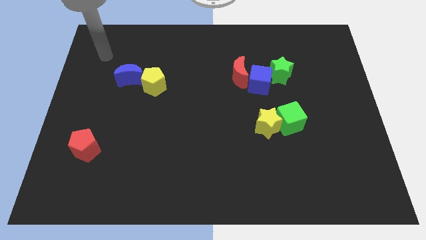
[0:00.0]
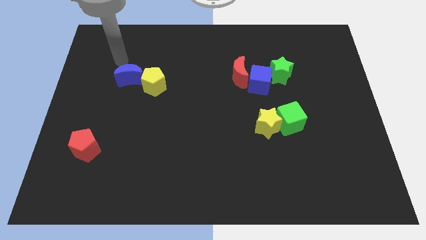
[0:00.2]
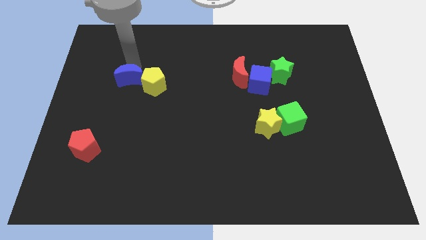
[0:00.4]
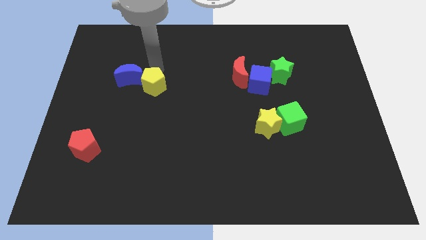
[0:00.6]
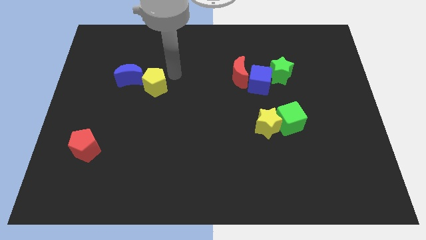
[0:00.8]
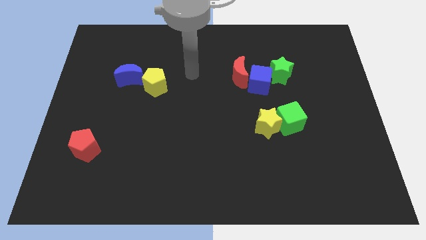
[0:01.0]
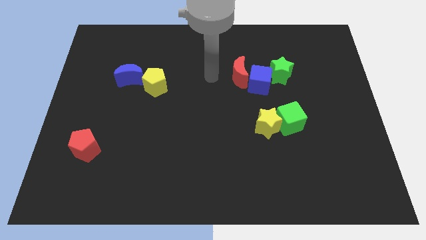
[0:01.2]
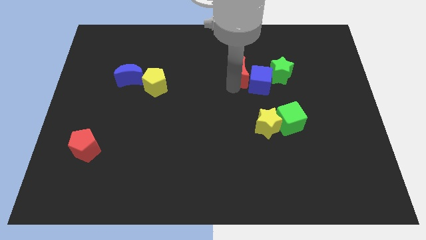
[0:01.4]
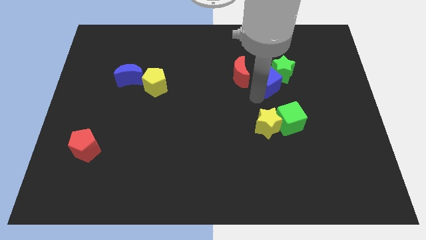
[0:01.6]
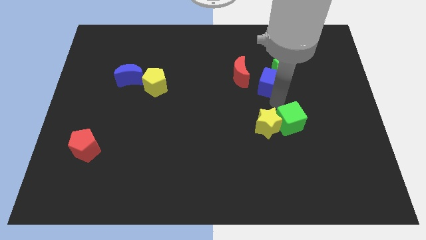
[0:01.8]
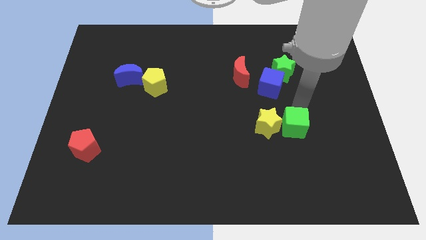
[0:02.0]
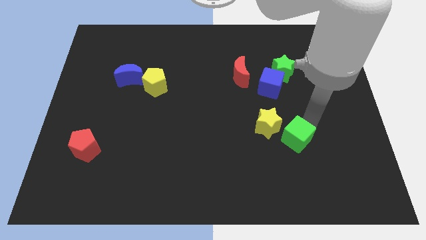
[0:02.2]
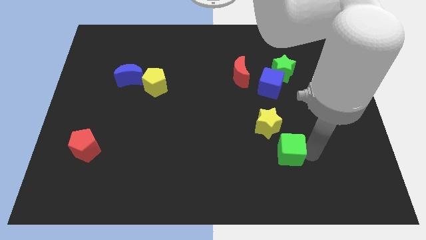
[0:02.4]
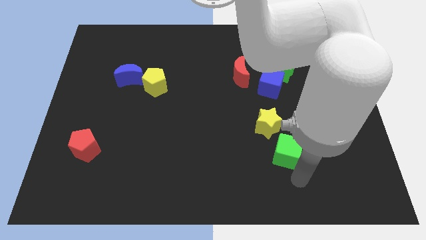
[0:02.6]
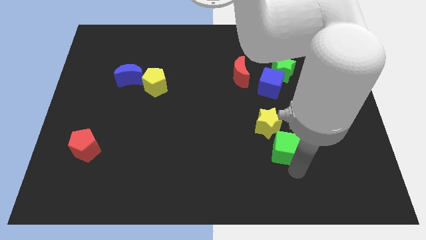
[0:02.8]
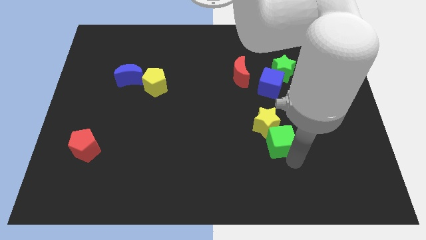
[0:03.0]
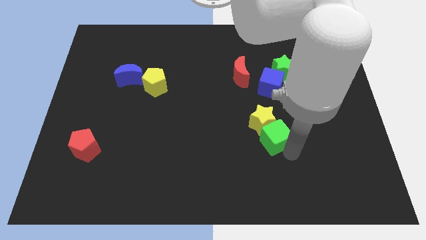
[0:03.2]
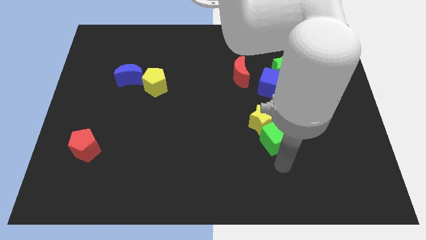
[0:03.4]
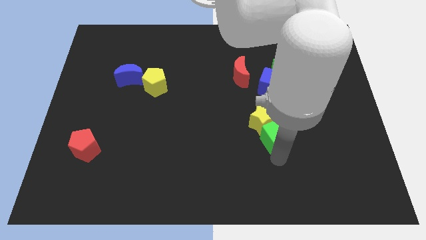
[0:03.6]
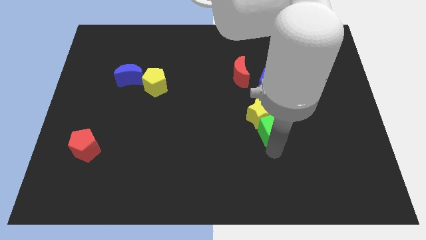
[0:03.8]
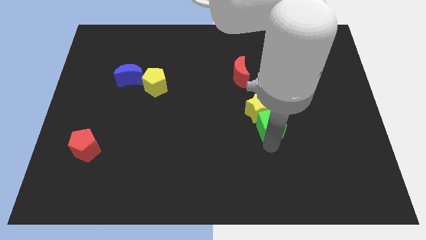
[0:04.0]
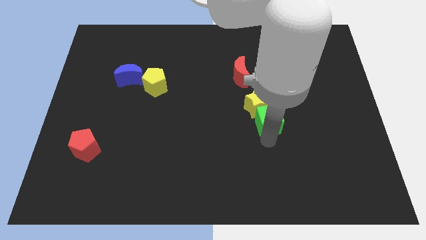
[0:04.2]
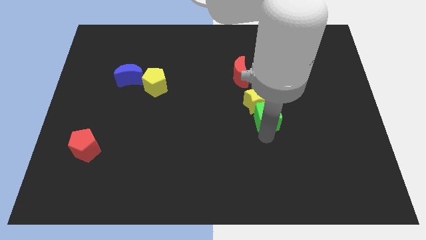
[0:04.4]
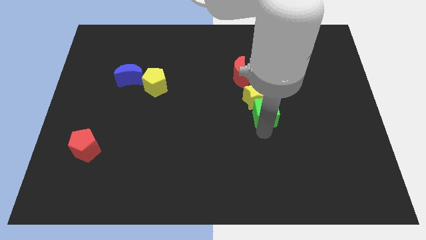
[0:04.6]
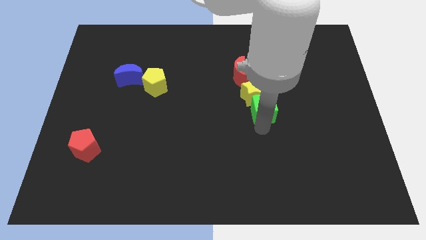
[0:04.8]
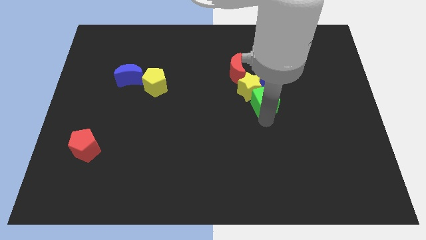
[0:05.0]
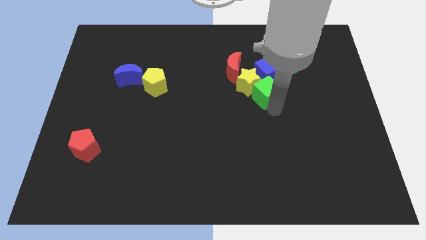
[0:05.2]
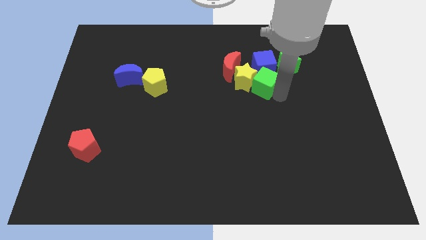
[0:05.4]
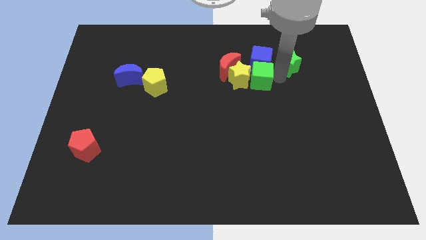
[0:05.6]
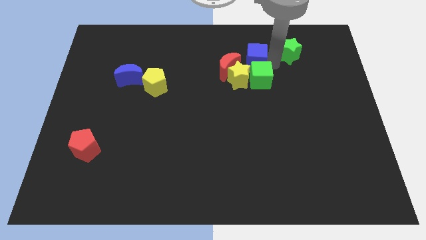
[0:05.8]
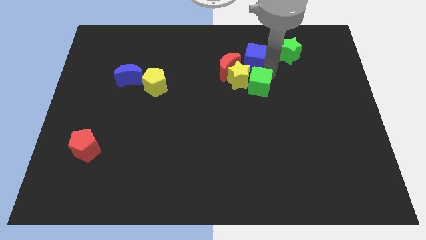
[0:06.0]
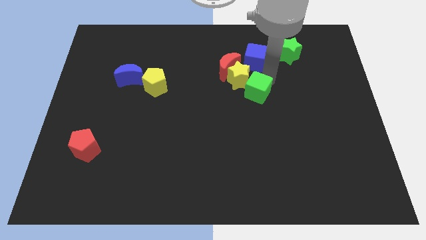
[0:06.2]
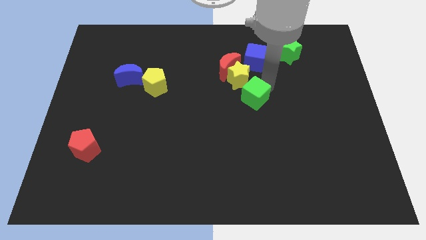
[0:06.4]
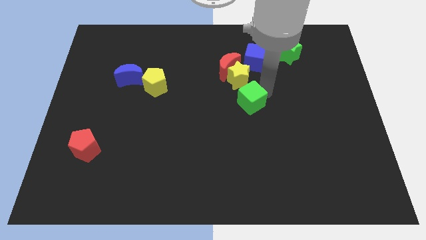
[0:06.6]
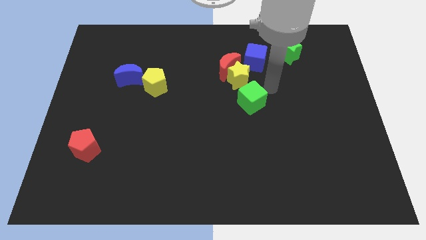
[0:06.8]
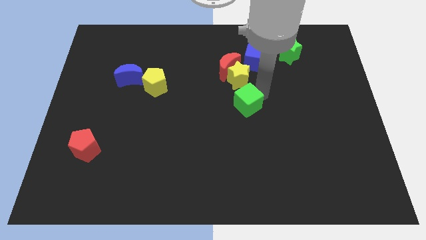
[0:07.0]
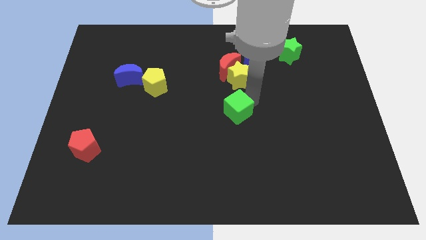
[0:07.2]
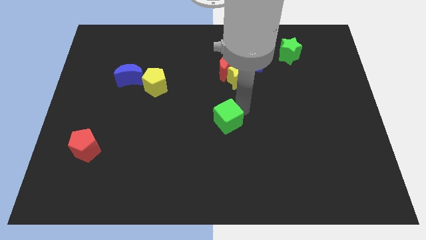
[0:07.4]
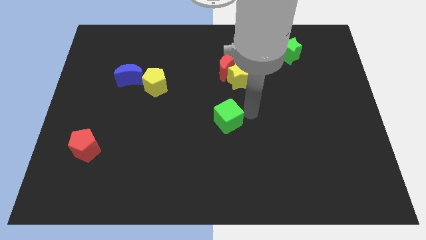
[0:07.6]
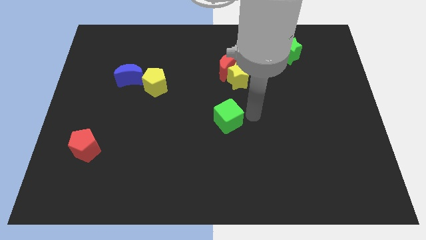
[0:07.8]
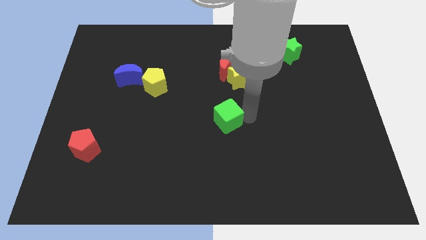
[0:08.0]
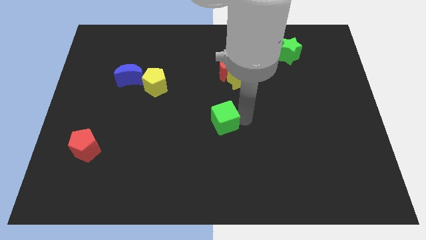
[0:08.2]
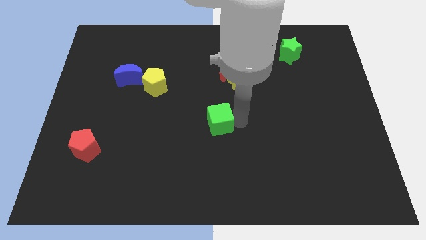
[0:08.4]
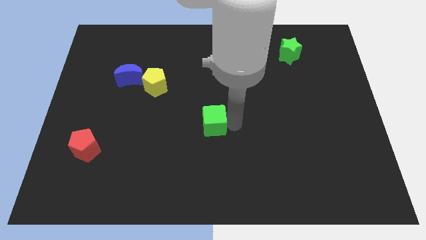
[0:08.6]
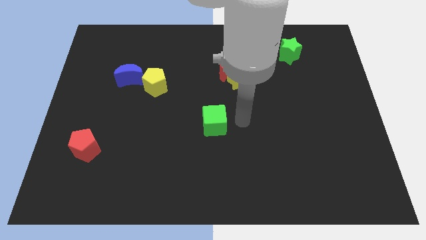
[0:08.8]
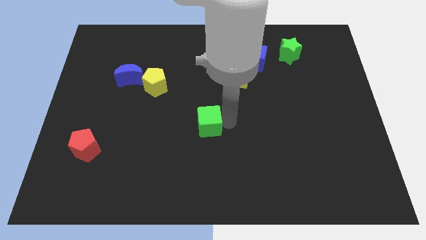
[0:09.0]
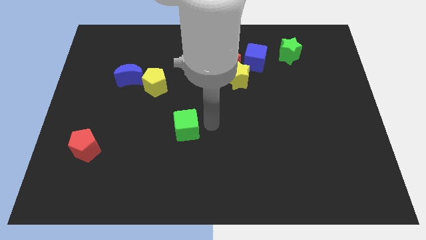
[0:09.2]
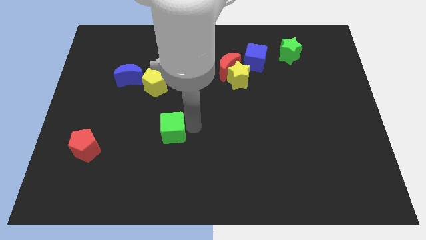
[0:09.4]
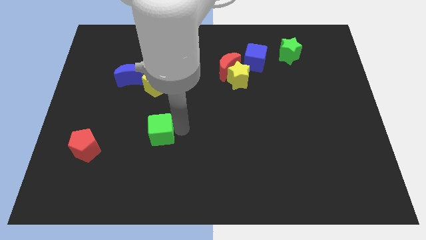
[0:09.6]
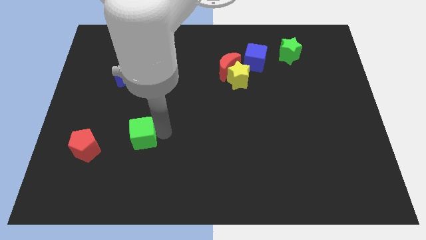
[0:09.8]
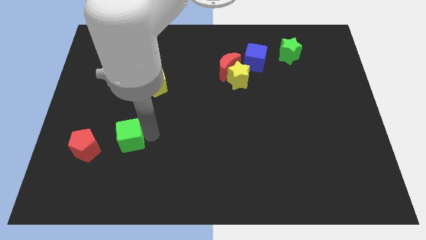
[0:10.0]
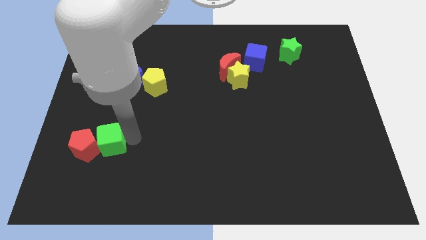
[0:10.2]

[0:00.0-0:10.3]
put the green cube close to the red pentagon

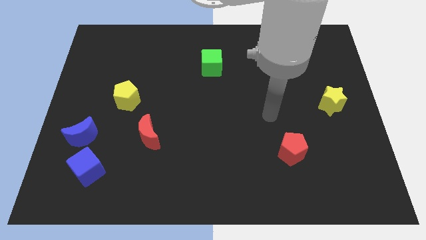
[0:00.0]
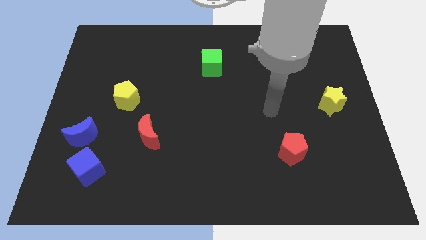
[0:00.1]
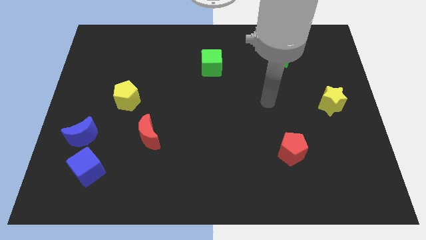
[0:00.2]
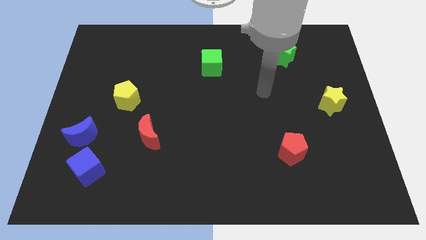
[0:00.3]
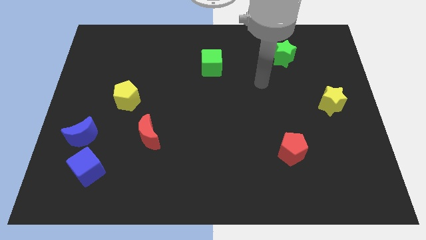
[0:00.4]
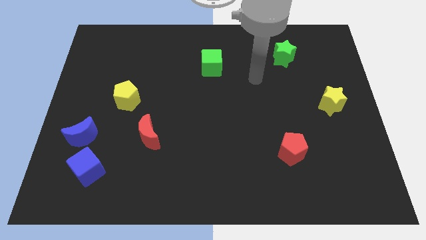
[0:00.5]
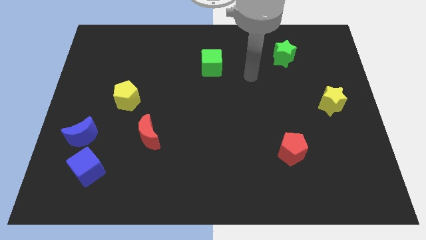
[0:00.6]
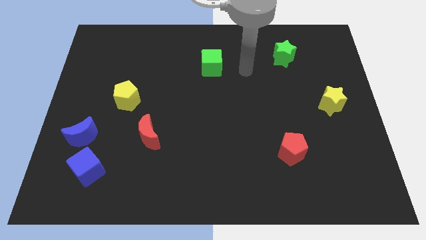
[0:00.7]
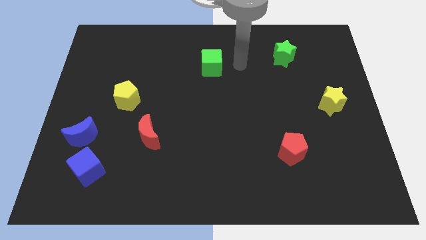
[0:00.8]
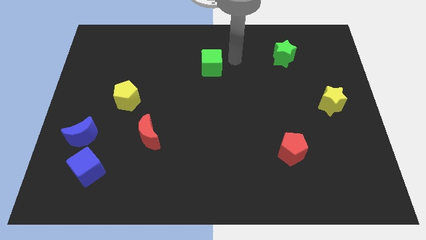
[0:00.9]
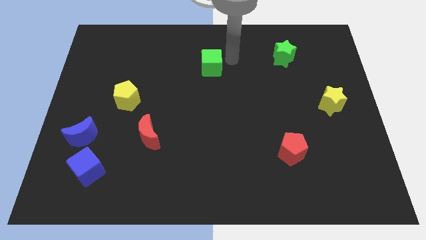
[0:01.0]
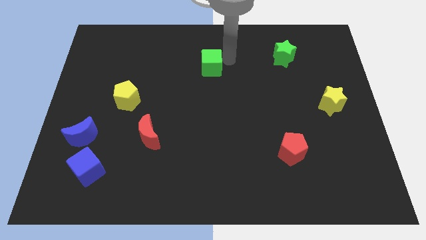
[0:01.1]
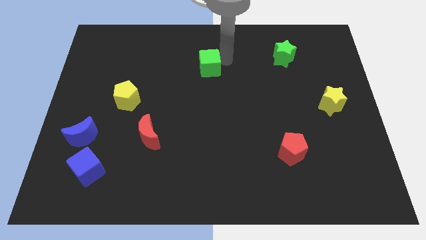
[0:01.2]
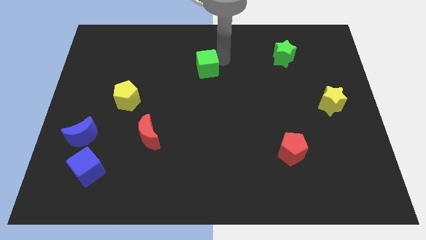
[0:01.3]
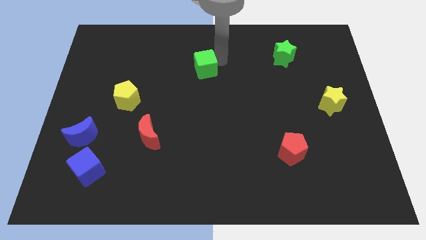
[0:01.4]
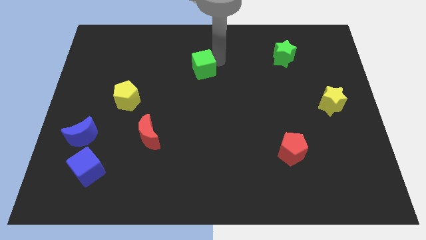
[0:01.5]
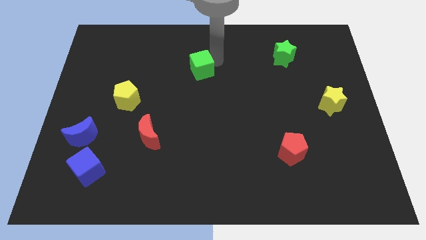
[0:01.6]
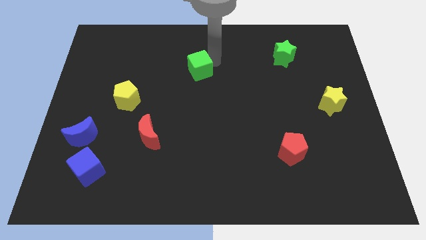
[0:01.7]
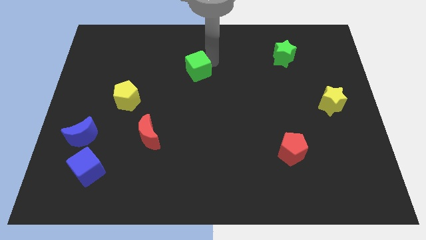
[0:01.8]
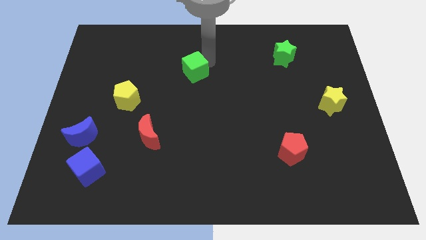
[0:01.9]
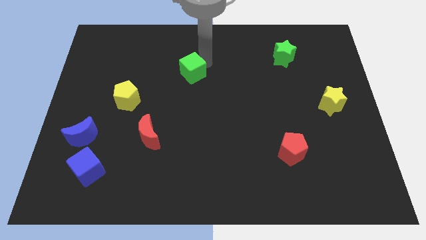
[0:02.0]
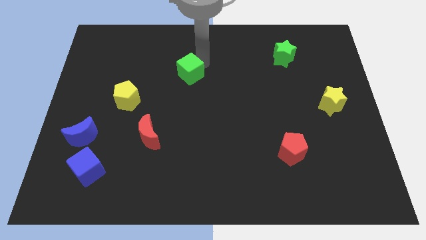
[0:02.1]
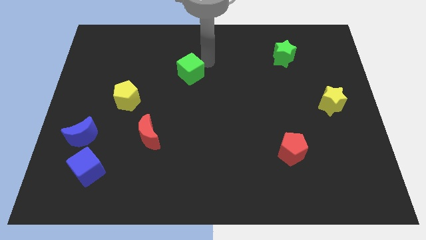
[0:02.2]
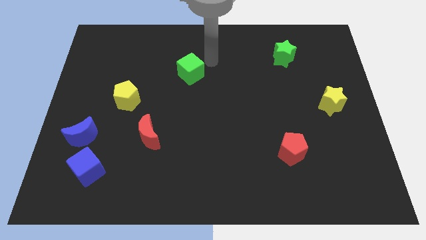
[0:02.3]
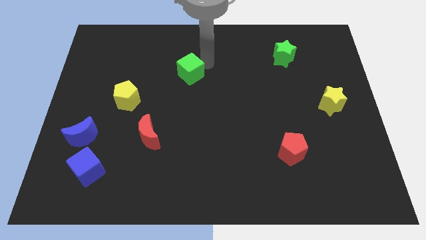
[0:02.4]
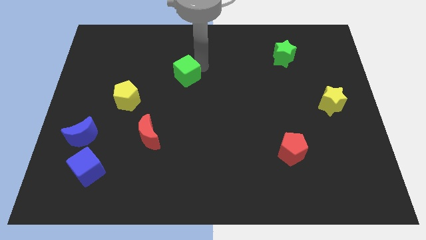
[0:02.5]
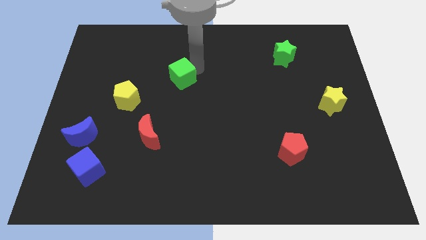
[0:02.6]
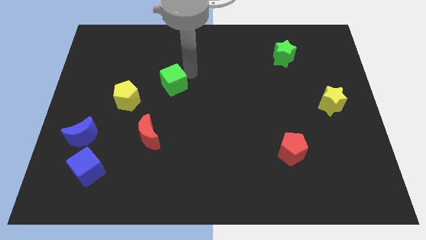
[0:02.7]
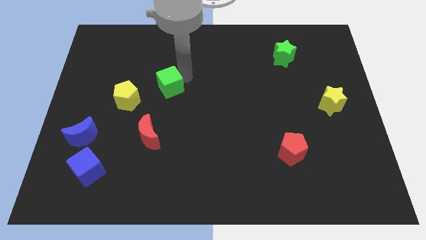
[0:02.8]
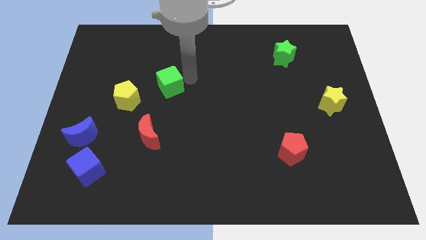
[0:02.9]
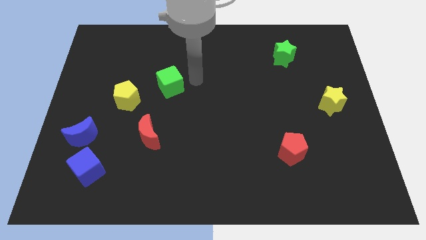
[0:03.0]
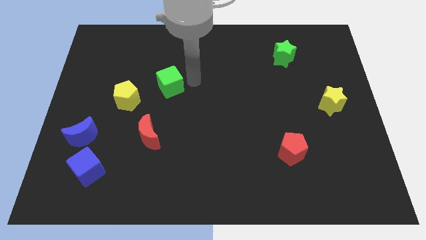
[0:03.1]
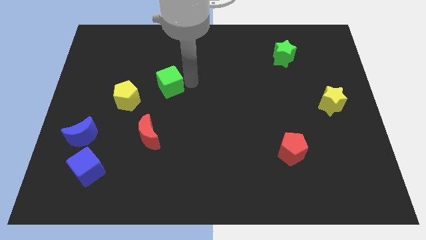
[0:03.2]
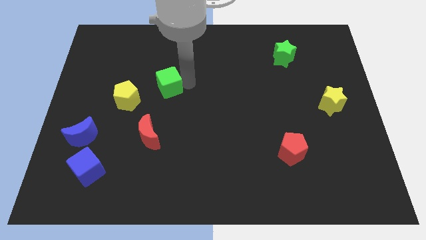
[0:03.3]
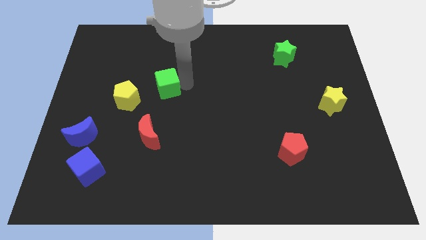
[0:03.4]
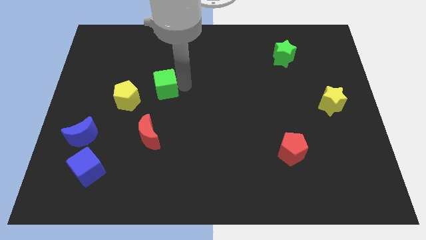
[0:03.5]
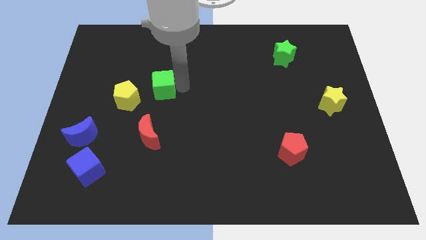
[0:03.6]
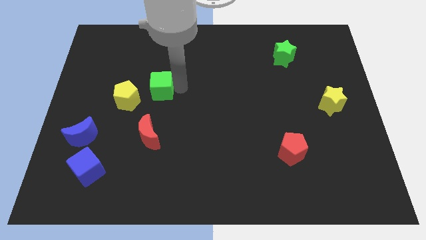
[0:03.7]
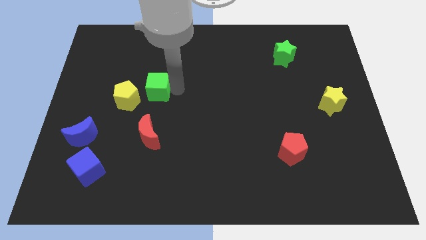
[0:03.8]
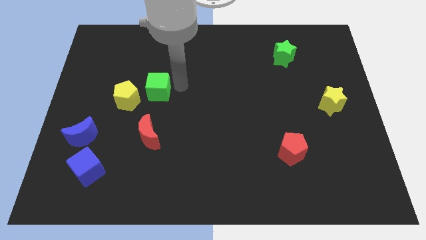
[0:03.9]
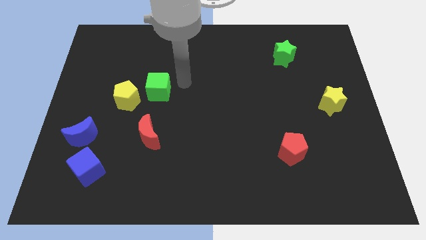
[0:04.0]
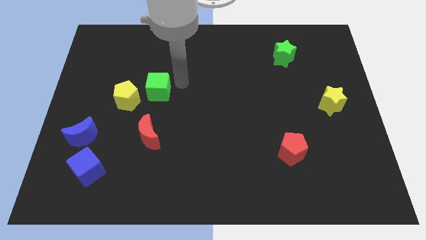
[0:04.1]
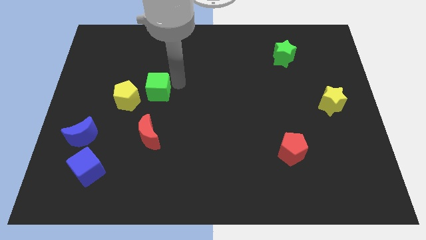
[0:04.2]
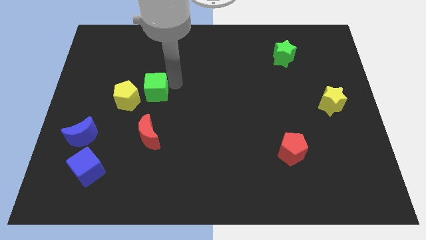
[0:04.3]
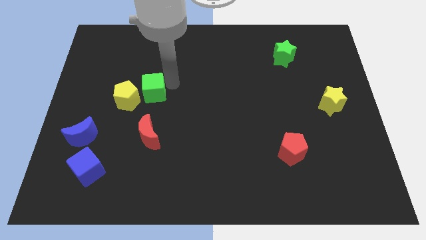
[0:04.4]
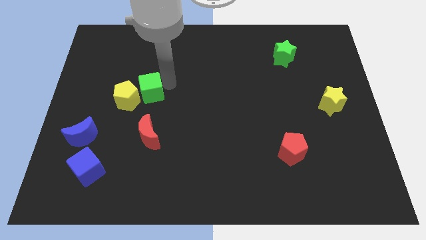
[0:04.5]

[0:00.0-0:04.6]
move the green cube to the yellow pentagon
